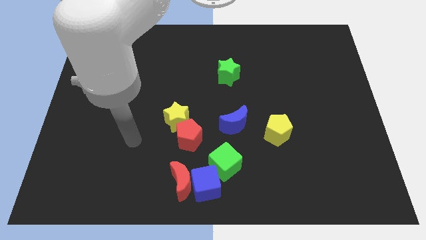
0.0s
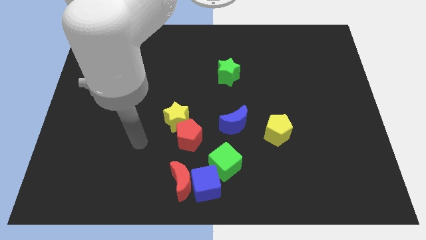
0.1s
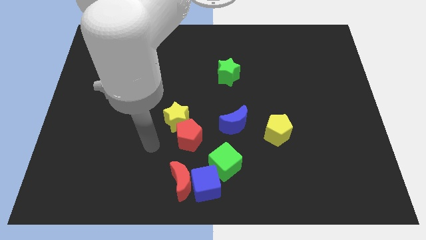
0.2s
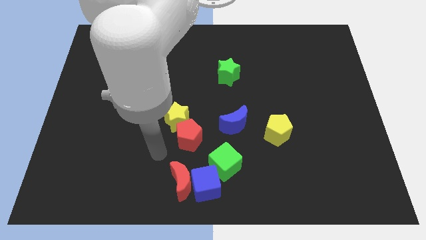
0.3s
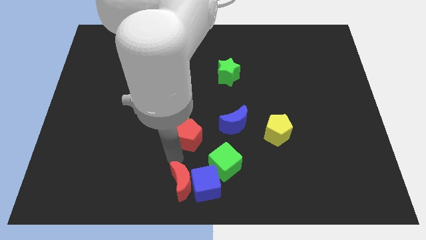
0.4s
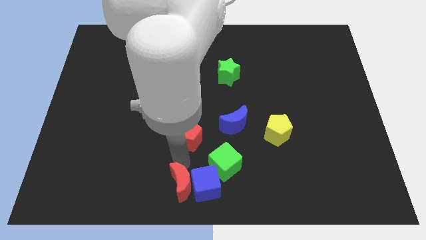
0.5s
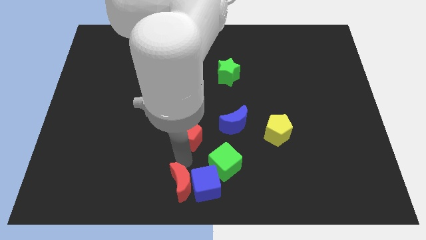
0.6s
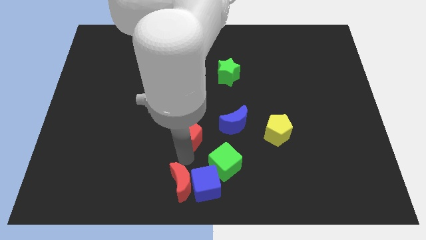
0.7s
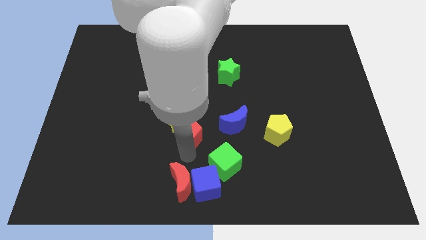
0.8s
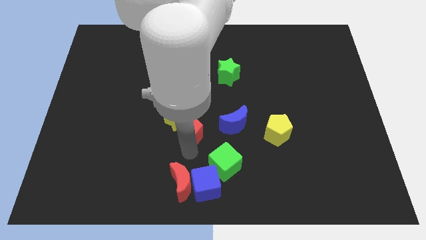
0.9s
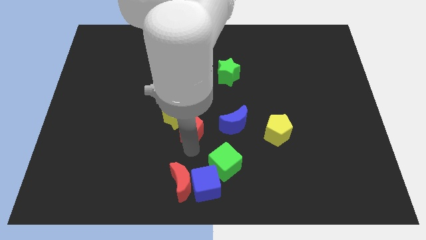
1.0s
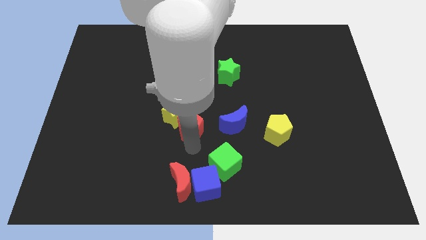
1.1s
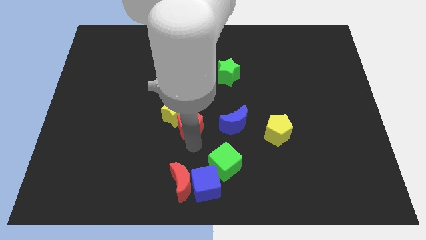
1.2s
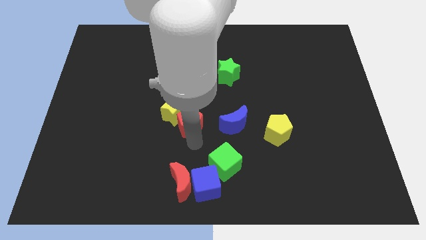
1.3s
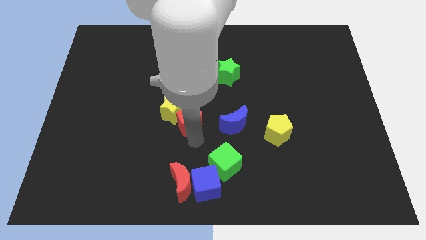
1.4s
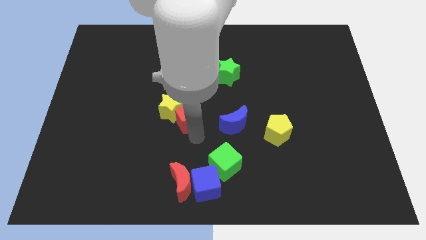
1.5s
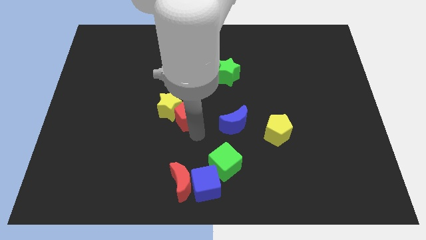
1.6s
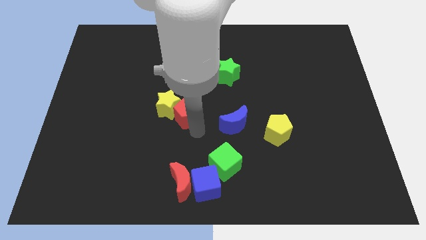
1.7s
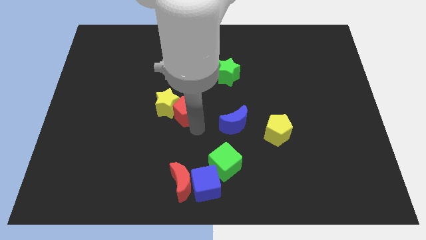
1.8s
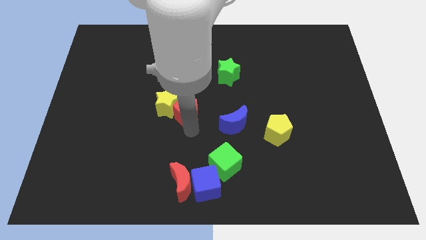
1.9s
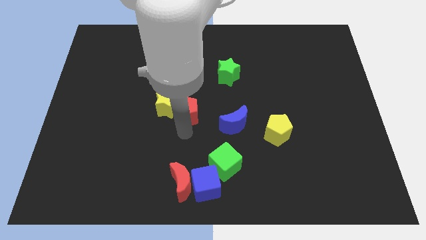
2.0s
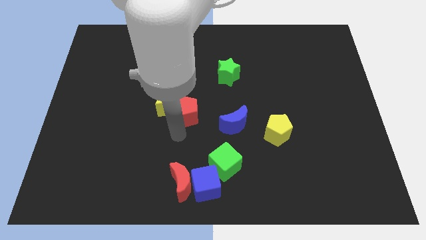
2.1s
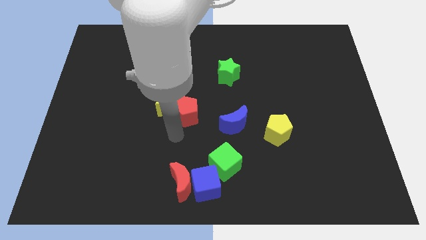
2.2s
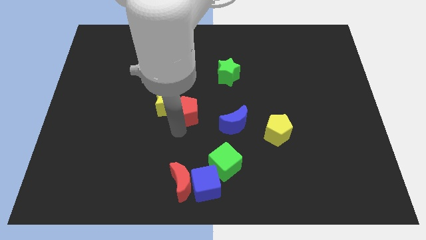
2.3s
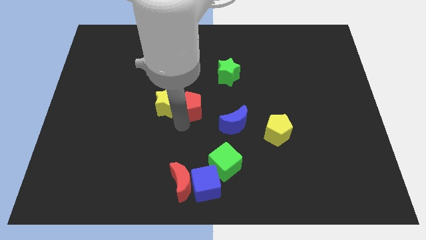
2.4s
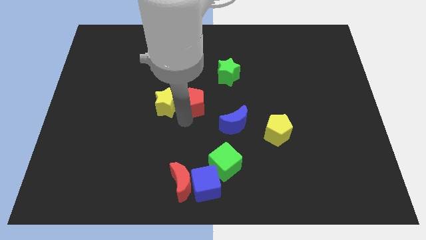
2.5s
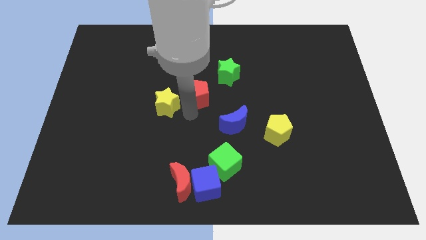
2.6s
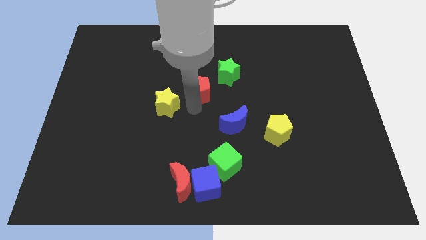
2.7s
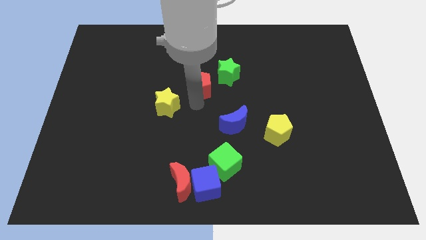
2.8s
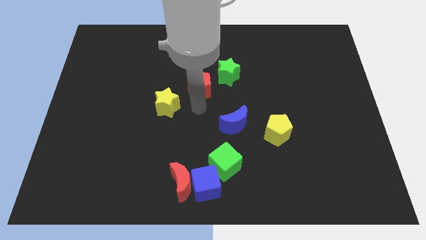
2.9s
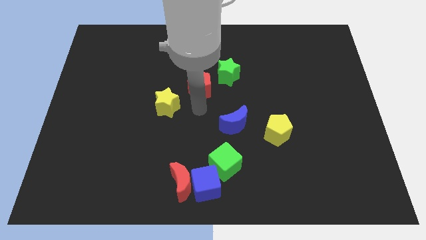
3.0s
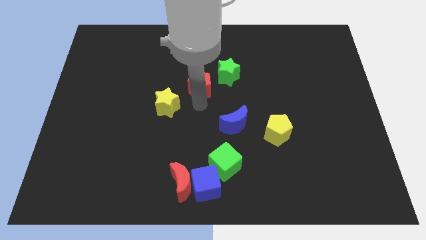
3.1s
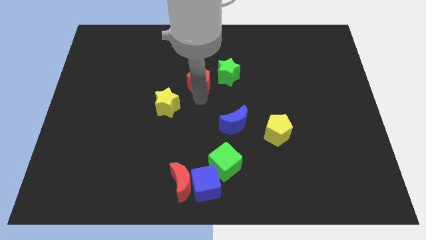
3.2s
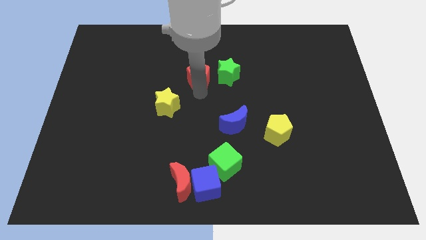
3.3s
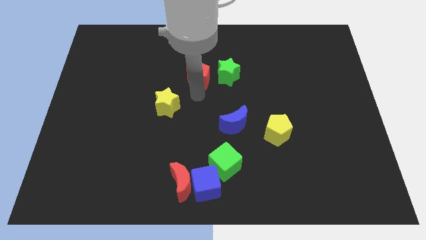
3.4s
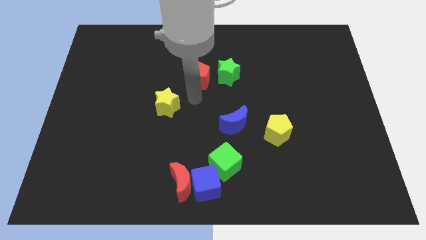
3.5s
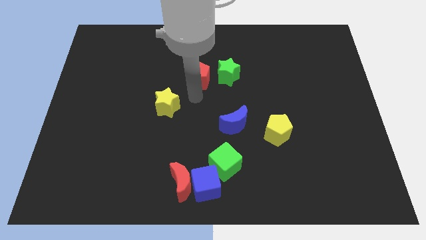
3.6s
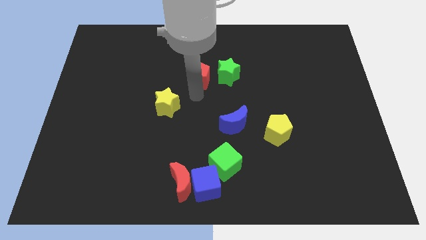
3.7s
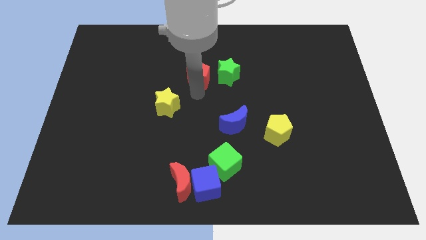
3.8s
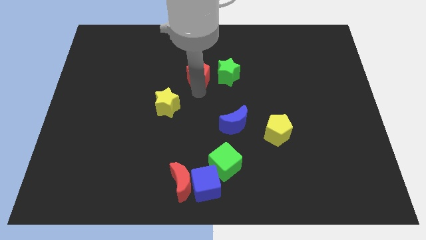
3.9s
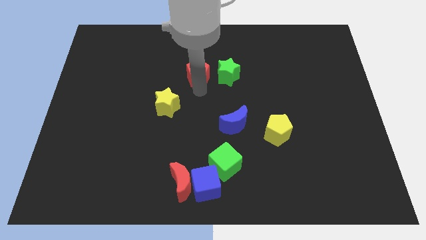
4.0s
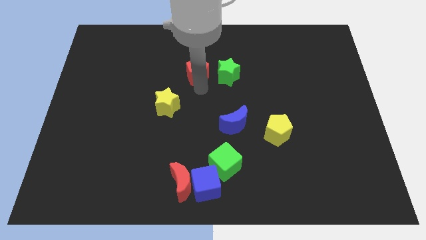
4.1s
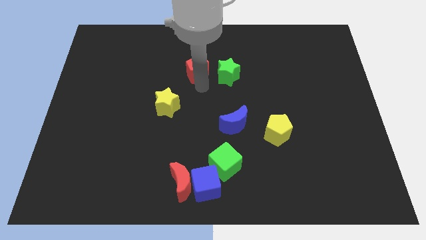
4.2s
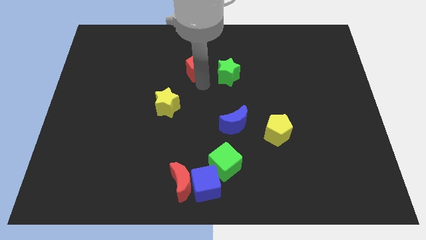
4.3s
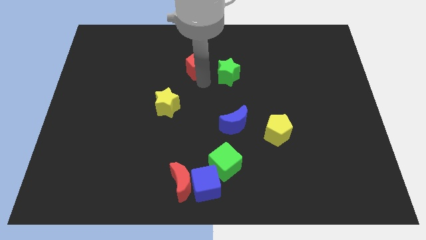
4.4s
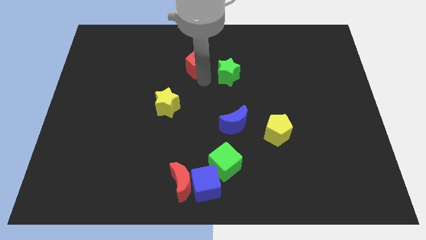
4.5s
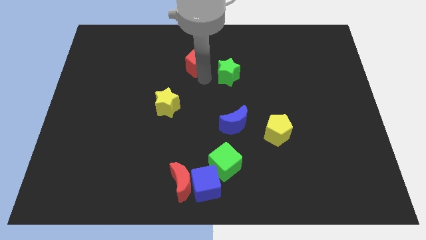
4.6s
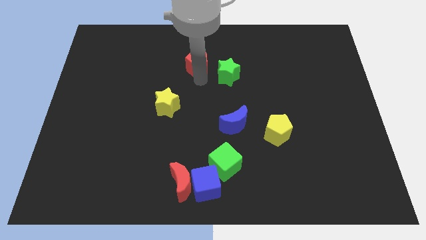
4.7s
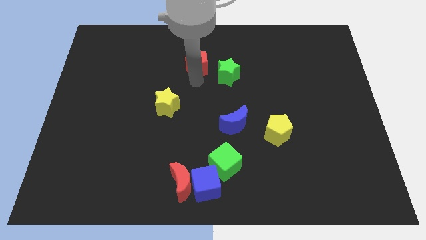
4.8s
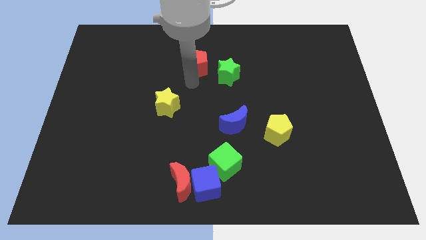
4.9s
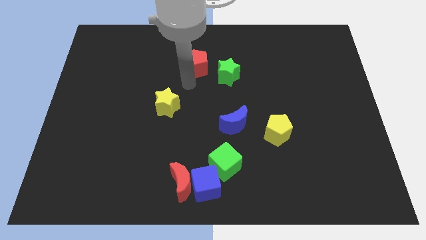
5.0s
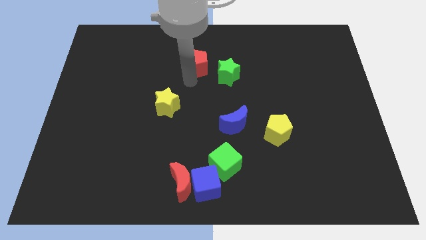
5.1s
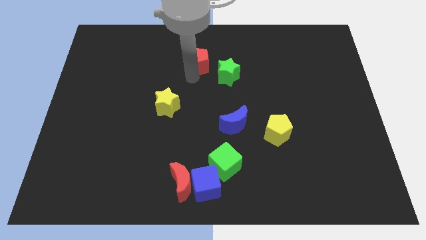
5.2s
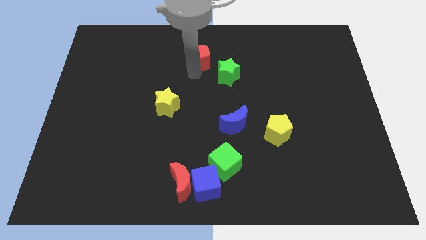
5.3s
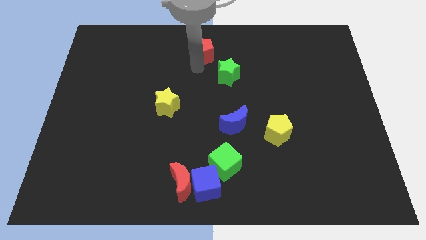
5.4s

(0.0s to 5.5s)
push the red pentagon to the top

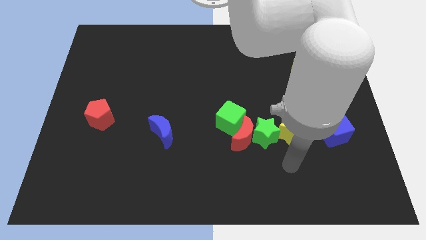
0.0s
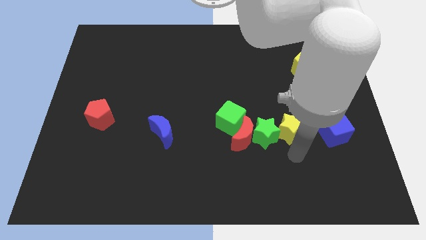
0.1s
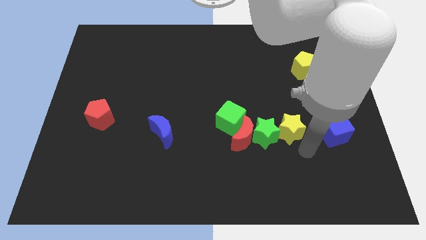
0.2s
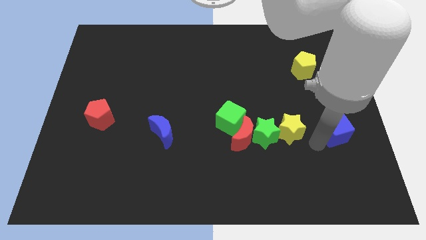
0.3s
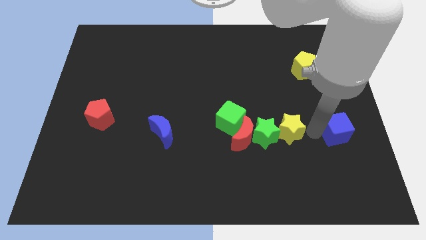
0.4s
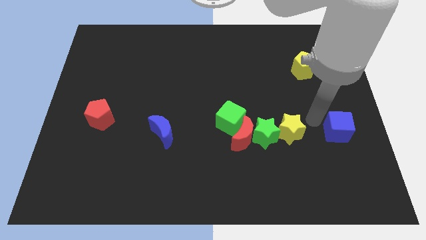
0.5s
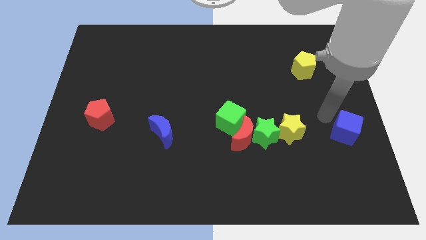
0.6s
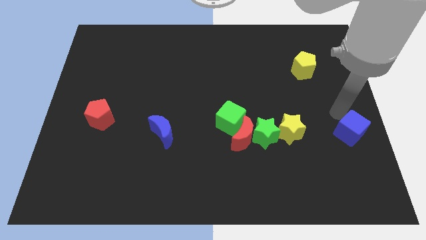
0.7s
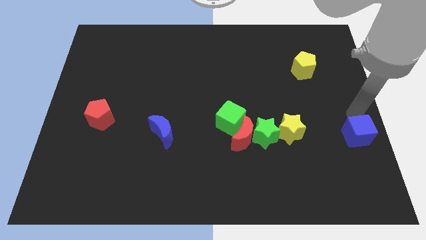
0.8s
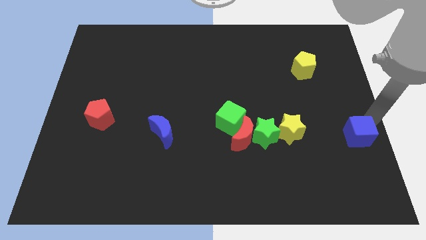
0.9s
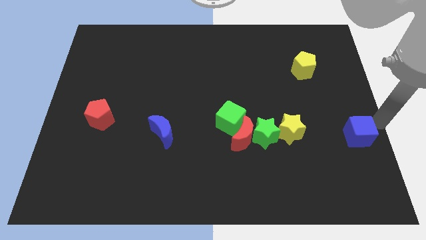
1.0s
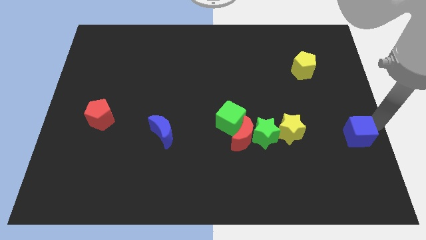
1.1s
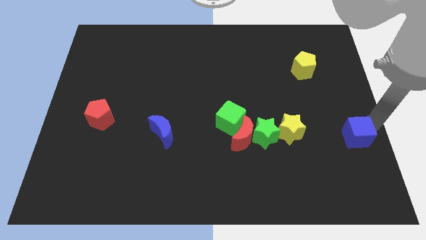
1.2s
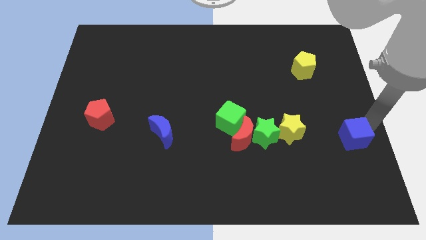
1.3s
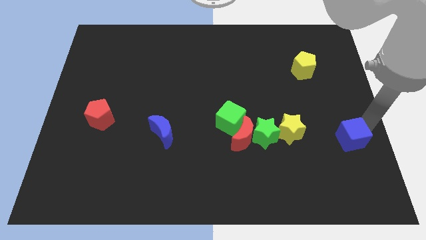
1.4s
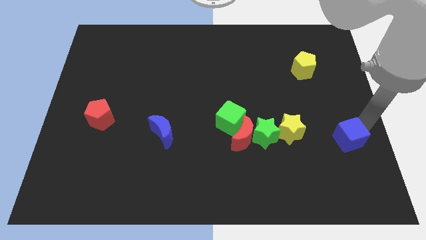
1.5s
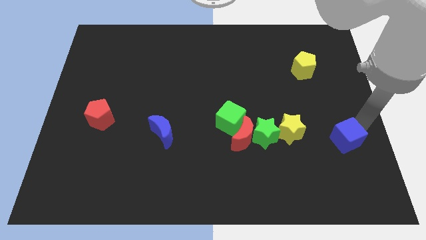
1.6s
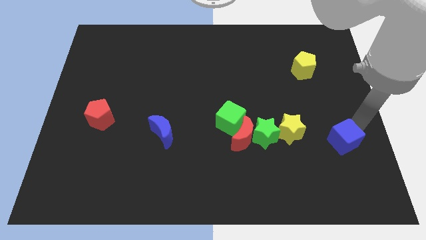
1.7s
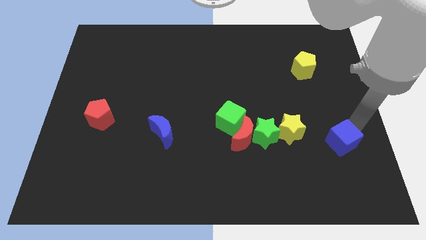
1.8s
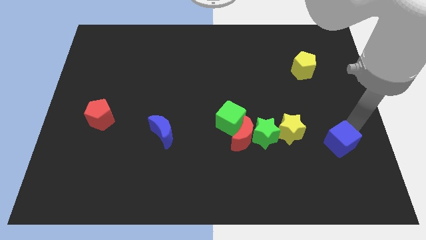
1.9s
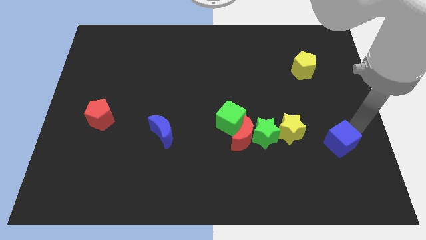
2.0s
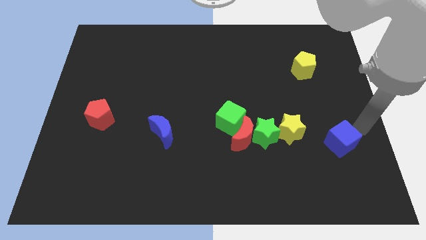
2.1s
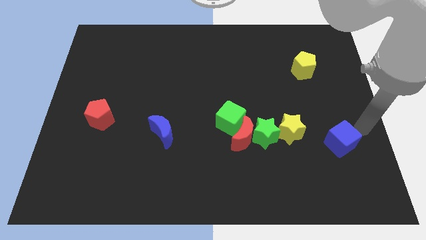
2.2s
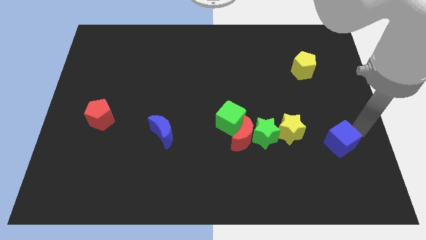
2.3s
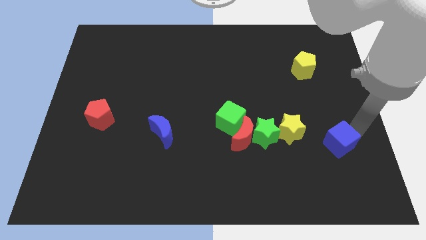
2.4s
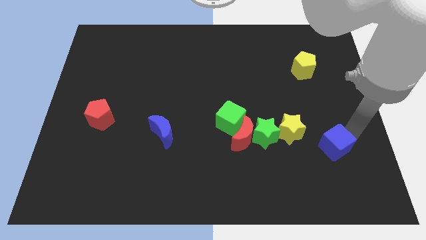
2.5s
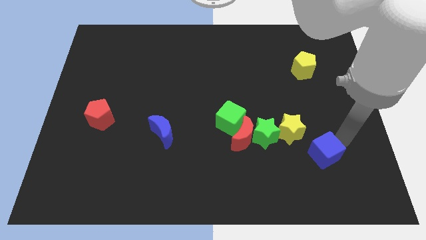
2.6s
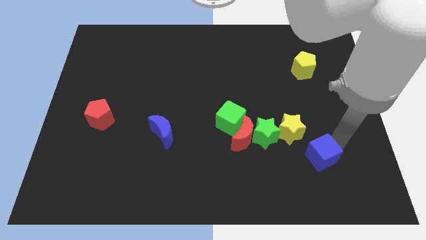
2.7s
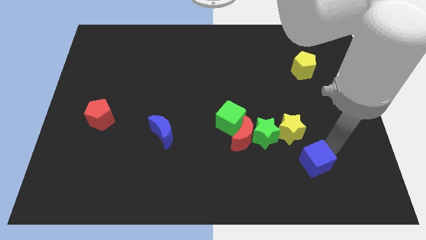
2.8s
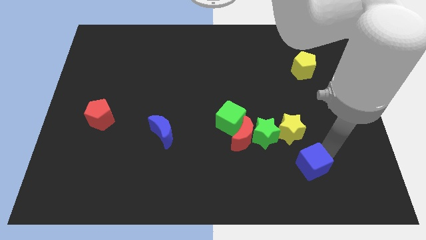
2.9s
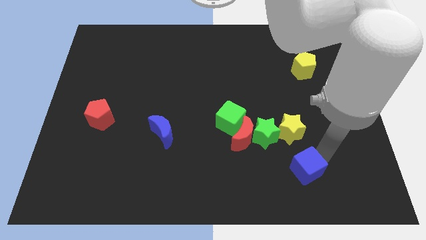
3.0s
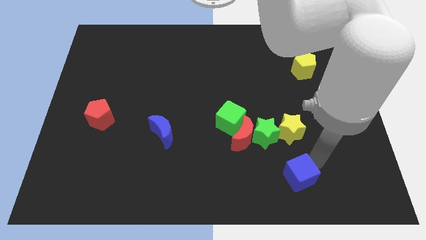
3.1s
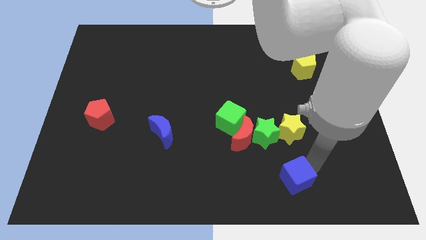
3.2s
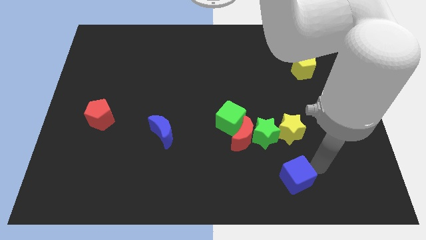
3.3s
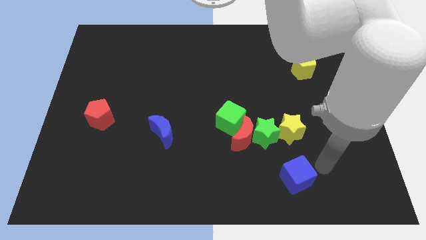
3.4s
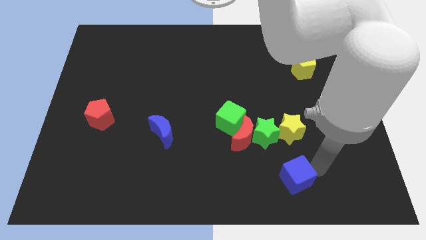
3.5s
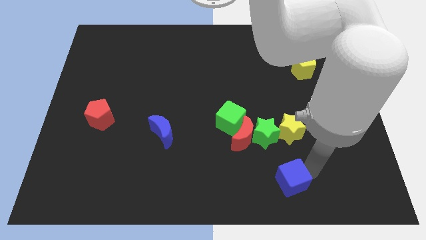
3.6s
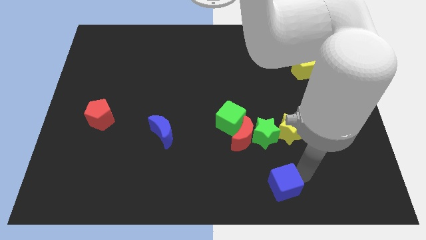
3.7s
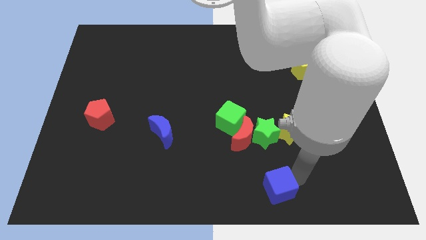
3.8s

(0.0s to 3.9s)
push the blue cube to the bottom side
